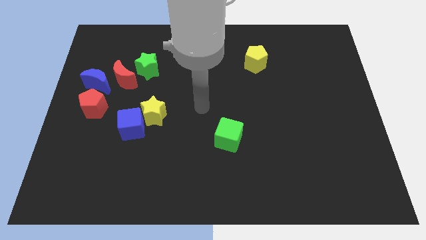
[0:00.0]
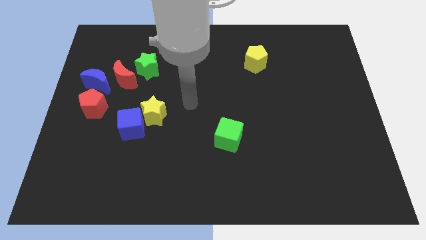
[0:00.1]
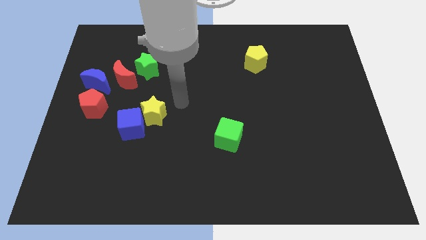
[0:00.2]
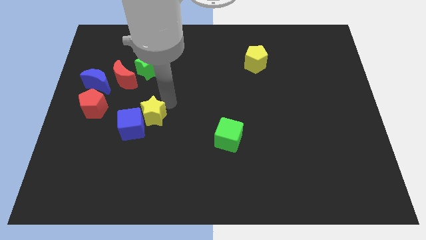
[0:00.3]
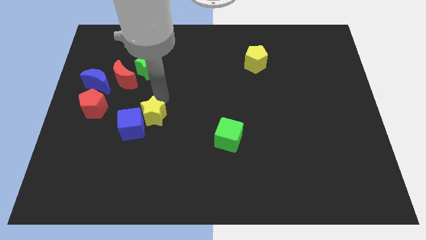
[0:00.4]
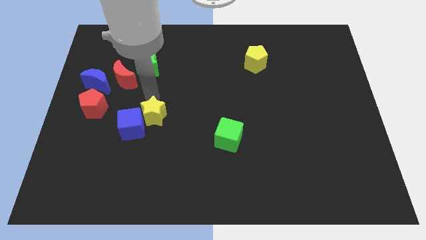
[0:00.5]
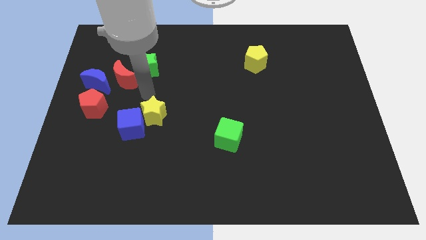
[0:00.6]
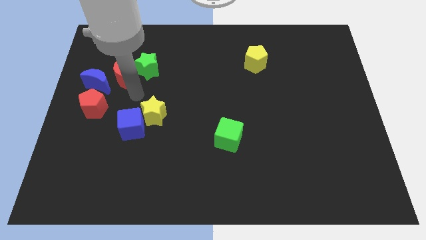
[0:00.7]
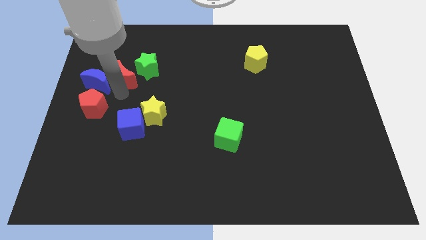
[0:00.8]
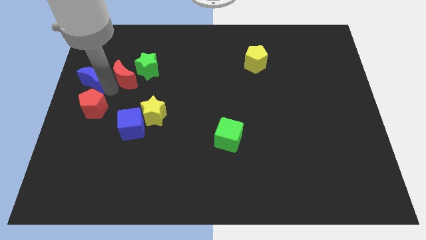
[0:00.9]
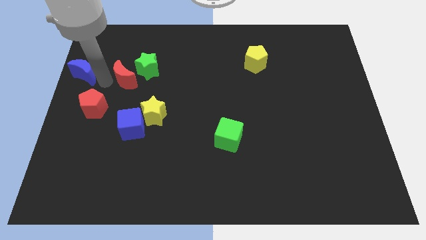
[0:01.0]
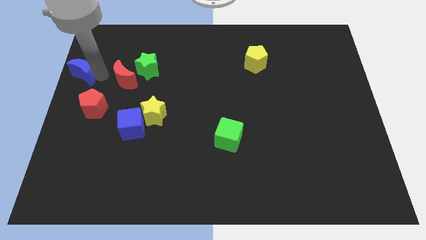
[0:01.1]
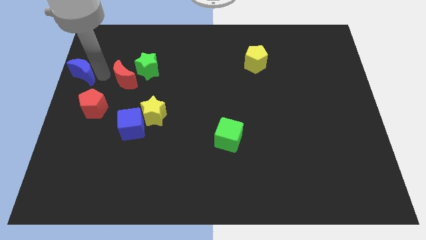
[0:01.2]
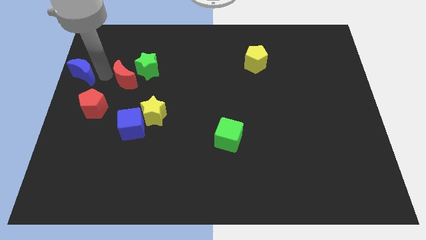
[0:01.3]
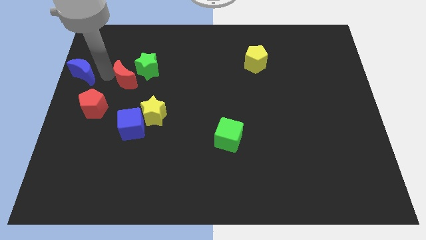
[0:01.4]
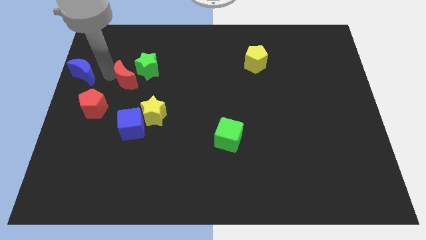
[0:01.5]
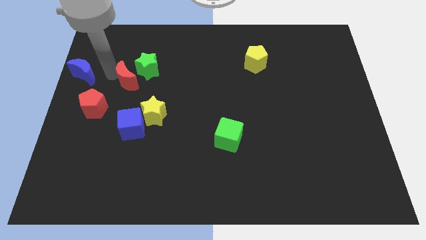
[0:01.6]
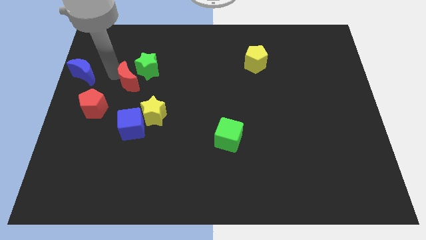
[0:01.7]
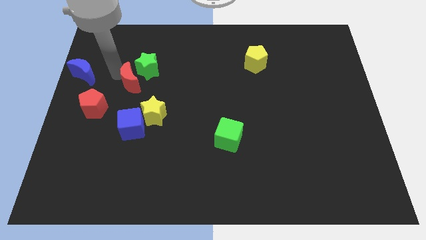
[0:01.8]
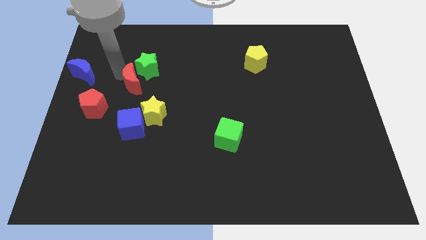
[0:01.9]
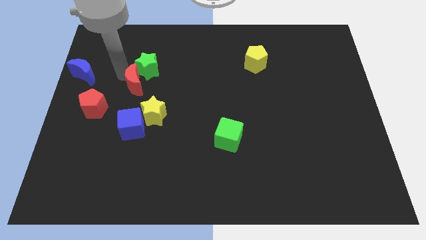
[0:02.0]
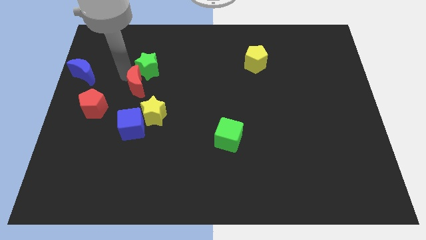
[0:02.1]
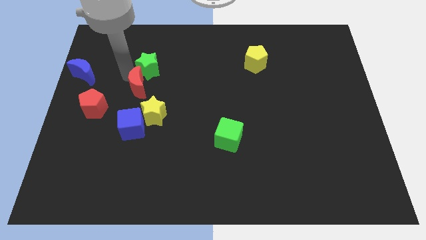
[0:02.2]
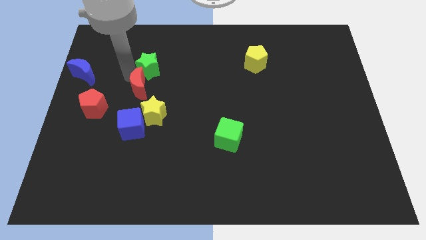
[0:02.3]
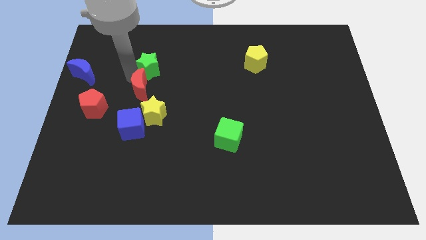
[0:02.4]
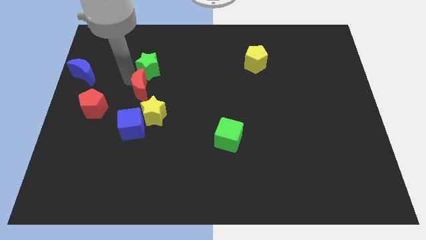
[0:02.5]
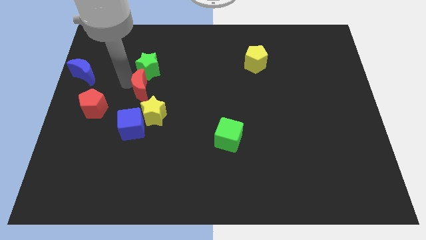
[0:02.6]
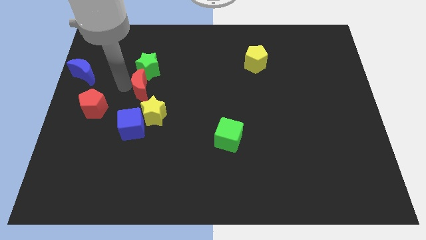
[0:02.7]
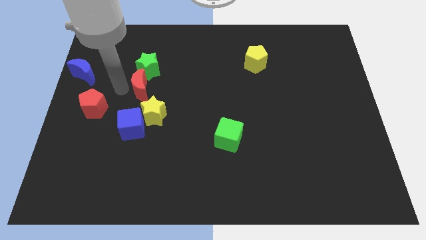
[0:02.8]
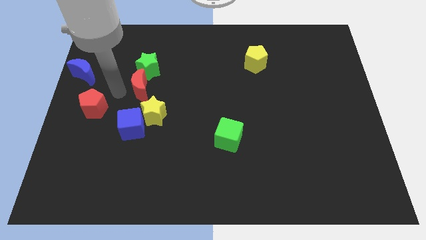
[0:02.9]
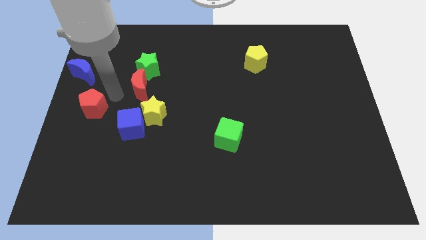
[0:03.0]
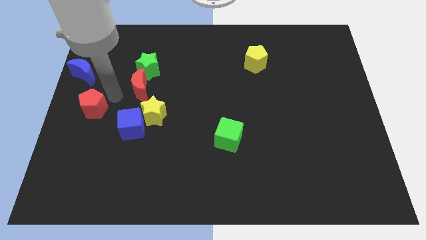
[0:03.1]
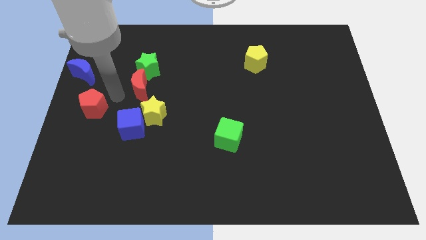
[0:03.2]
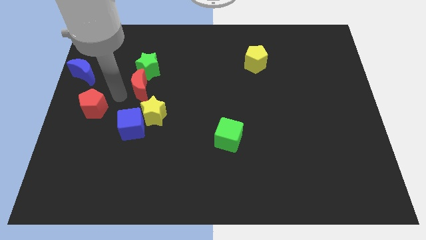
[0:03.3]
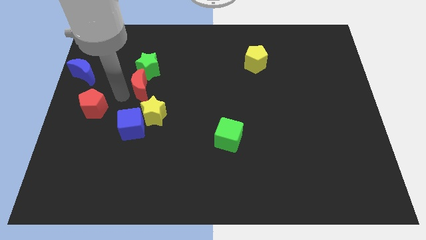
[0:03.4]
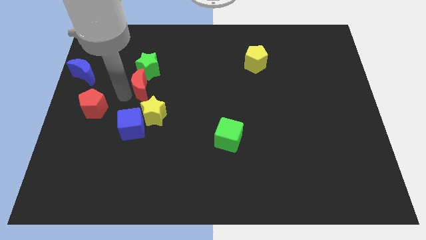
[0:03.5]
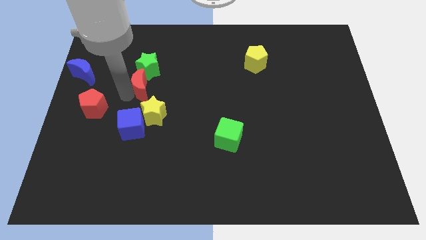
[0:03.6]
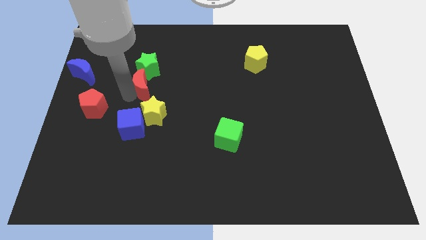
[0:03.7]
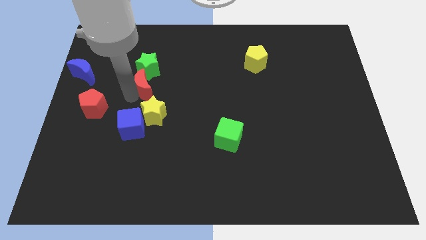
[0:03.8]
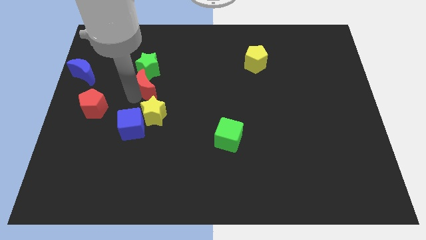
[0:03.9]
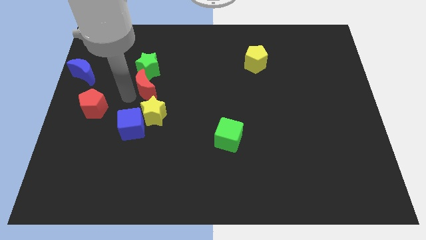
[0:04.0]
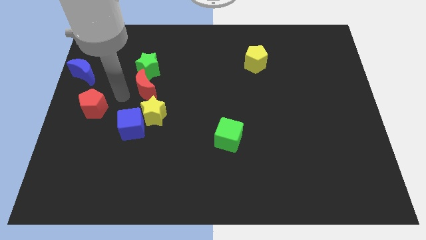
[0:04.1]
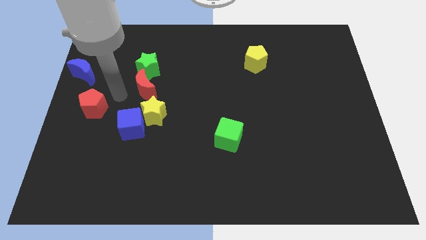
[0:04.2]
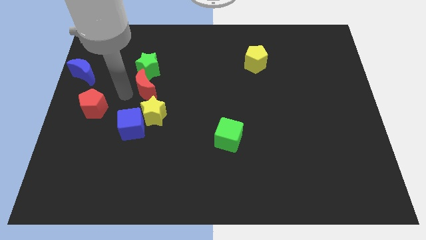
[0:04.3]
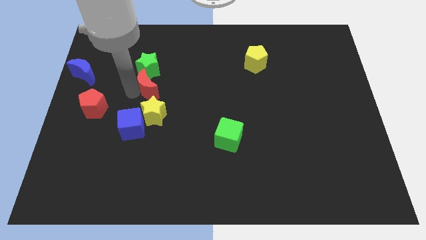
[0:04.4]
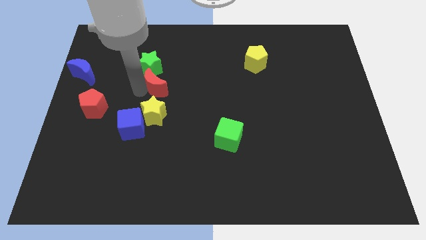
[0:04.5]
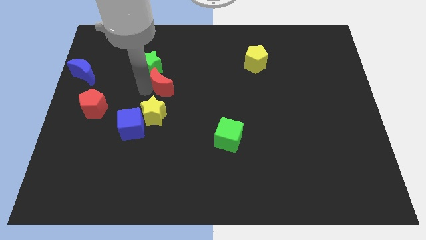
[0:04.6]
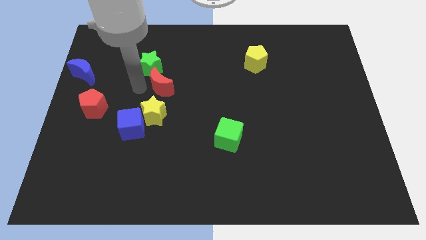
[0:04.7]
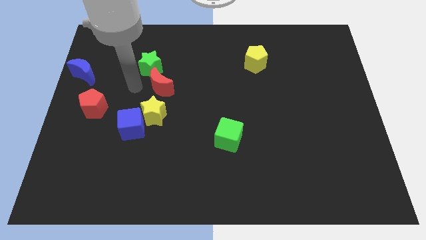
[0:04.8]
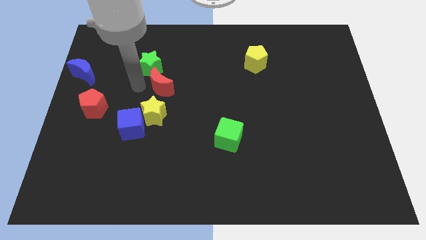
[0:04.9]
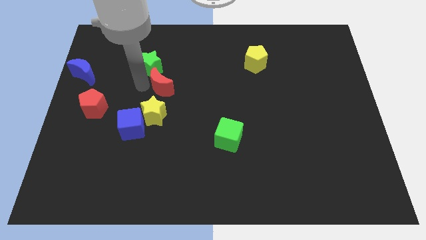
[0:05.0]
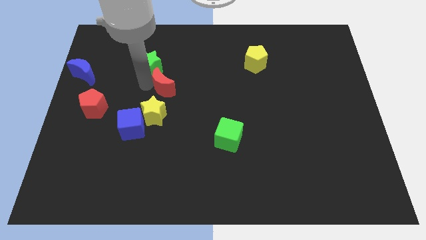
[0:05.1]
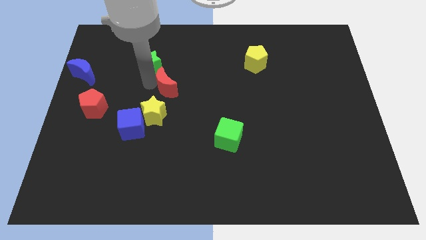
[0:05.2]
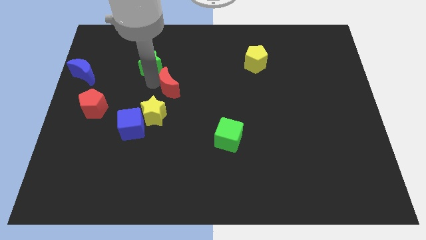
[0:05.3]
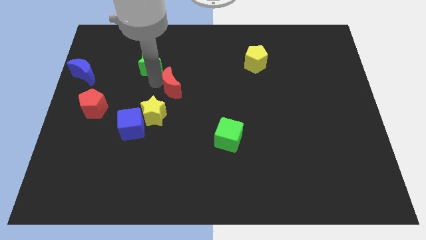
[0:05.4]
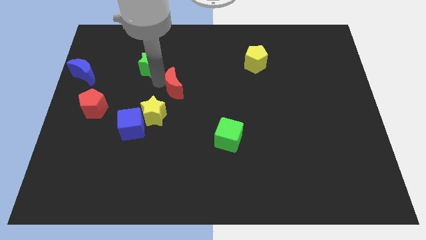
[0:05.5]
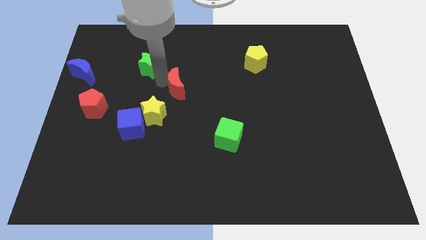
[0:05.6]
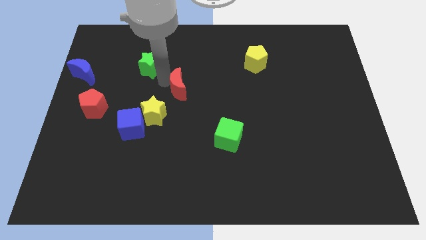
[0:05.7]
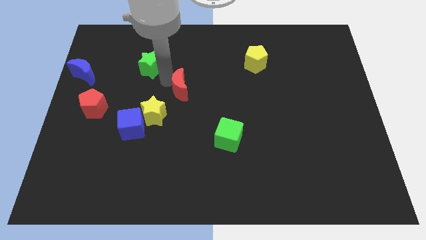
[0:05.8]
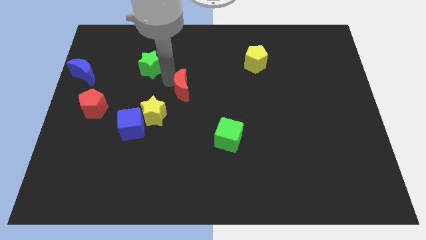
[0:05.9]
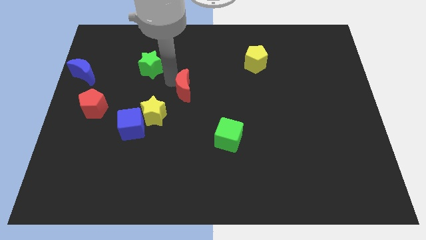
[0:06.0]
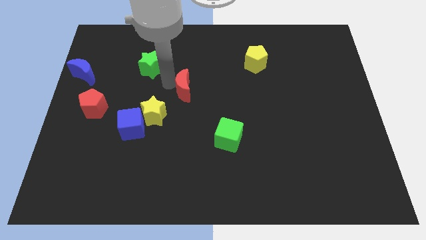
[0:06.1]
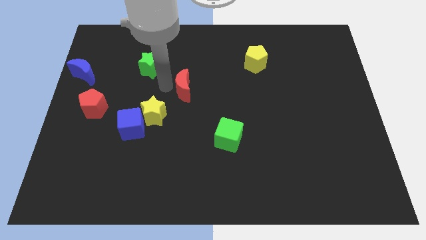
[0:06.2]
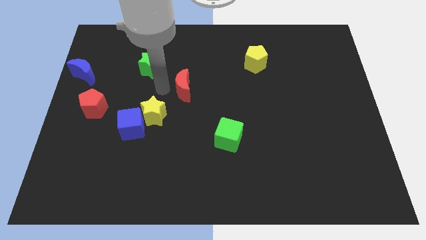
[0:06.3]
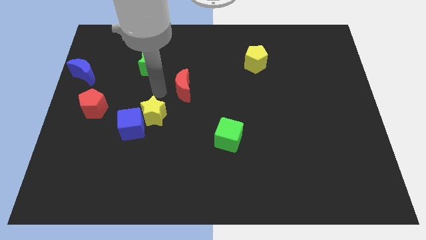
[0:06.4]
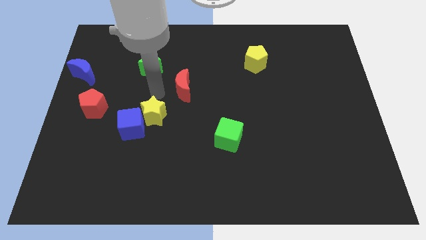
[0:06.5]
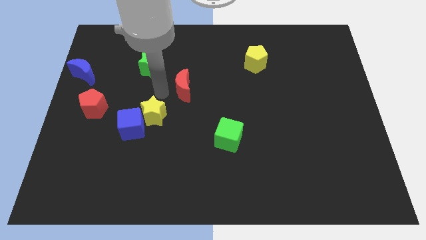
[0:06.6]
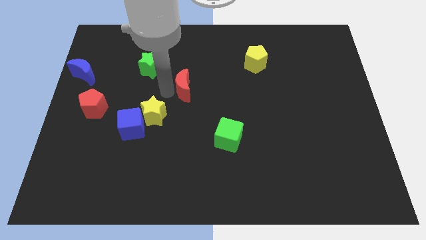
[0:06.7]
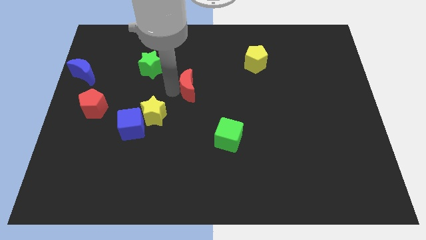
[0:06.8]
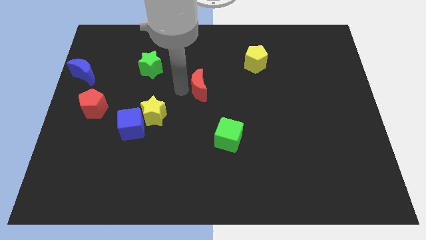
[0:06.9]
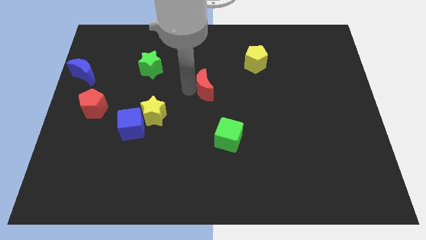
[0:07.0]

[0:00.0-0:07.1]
slide the red moon to the right

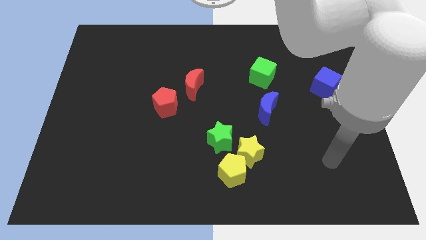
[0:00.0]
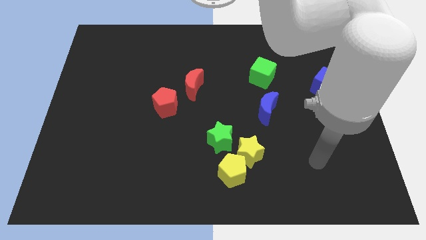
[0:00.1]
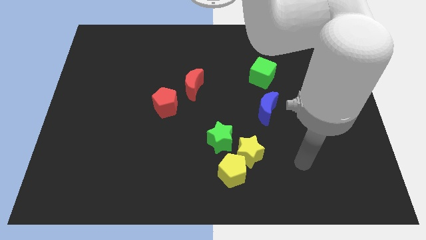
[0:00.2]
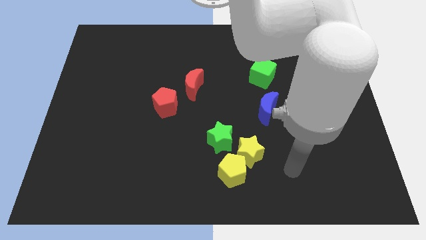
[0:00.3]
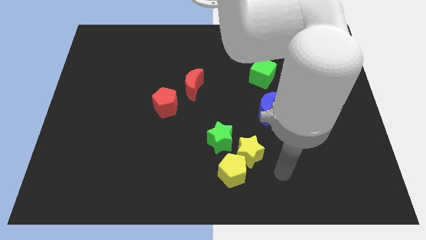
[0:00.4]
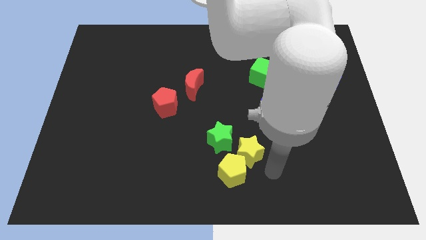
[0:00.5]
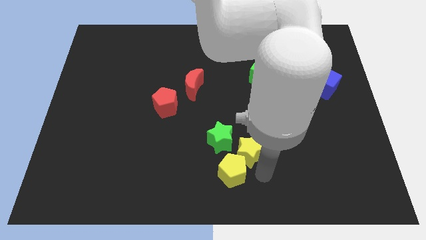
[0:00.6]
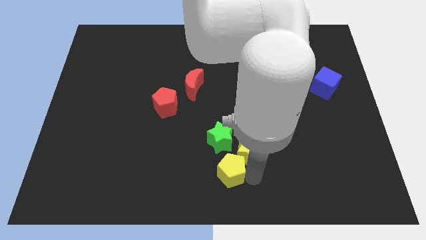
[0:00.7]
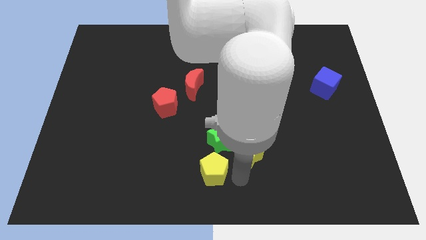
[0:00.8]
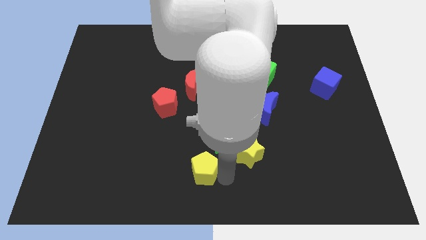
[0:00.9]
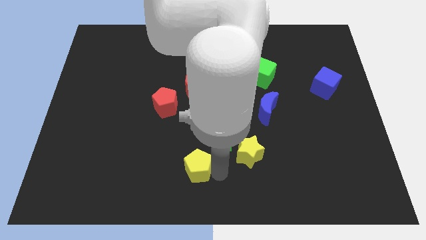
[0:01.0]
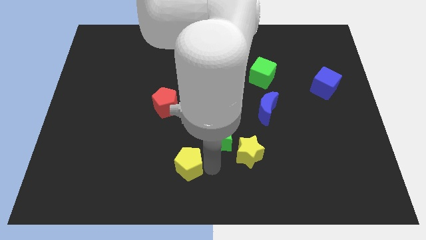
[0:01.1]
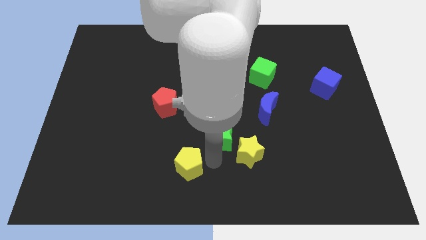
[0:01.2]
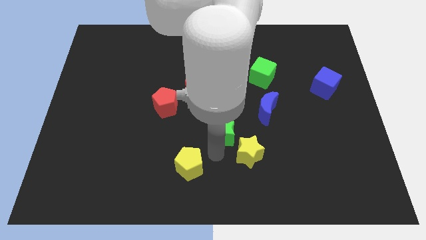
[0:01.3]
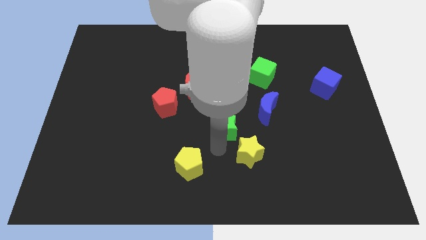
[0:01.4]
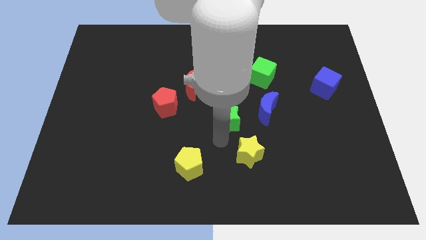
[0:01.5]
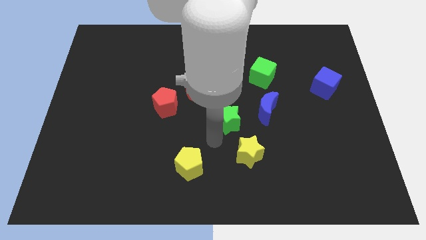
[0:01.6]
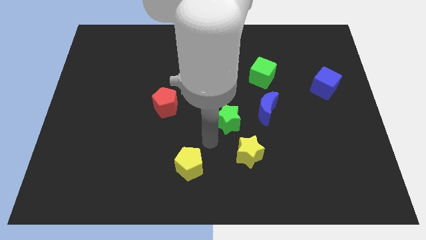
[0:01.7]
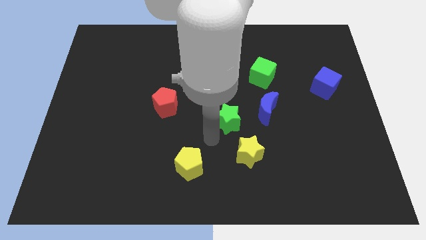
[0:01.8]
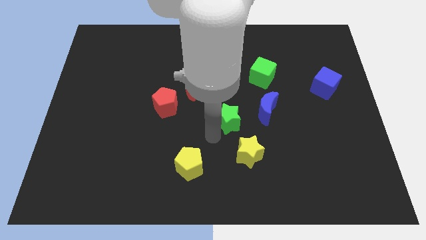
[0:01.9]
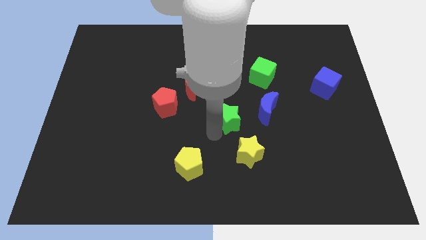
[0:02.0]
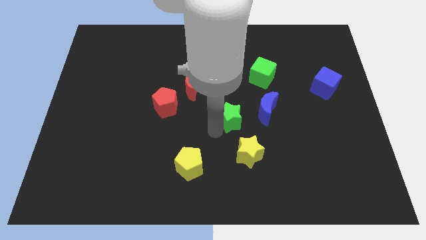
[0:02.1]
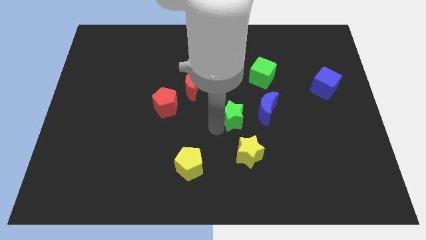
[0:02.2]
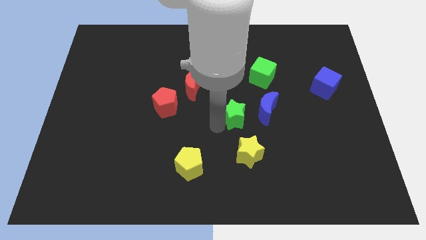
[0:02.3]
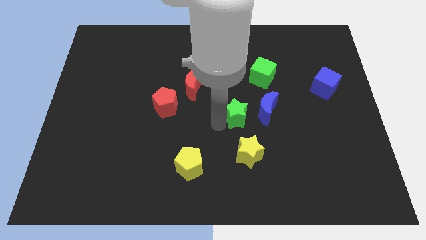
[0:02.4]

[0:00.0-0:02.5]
slightly move the green star diagonally up and right
